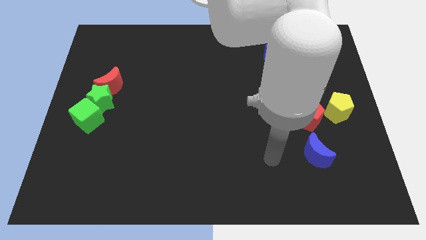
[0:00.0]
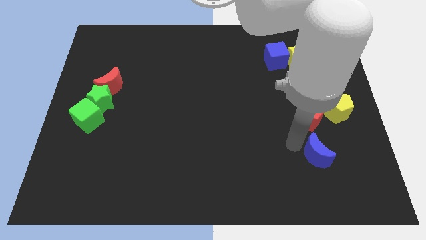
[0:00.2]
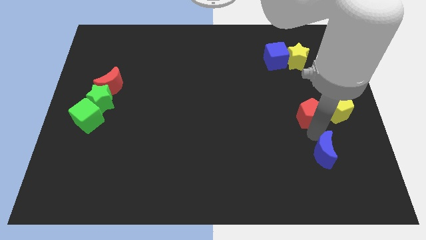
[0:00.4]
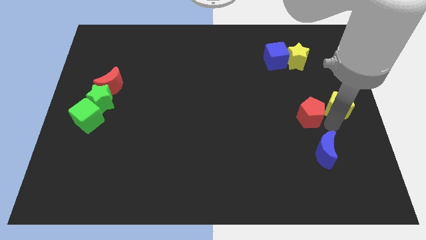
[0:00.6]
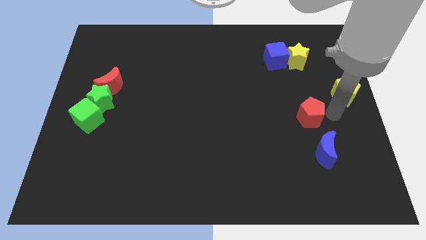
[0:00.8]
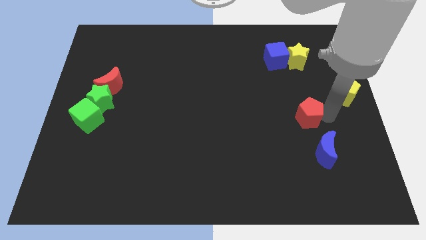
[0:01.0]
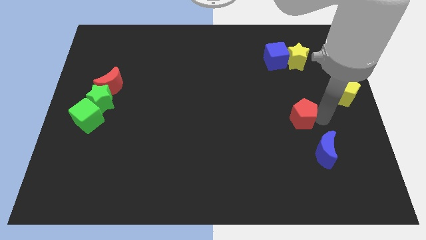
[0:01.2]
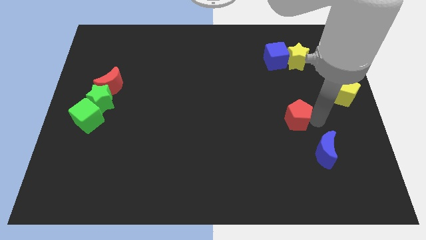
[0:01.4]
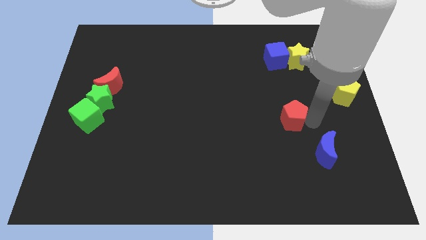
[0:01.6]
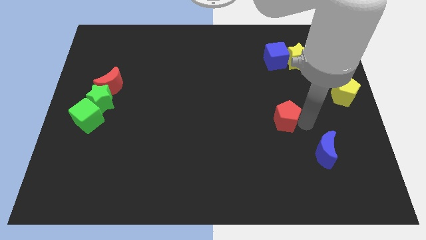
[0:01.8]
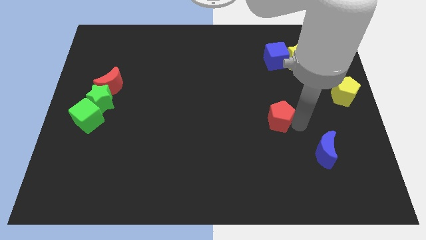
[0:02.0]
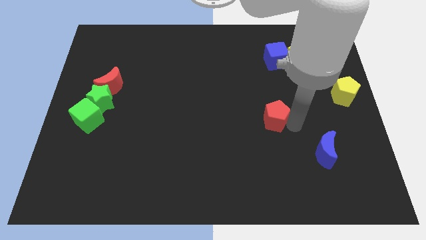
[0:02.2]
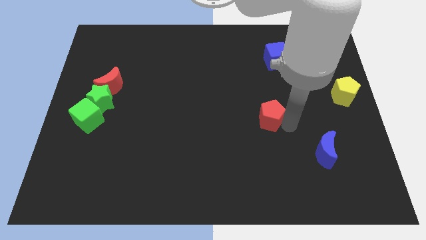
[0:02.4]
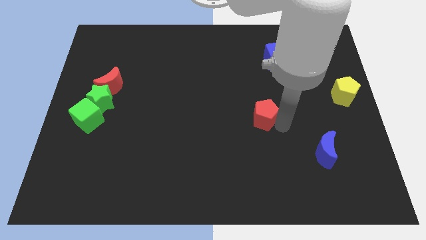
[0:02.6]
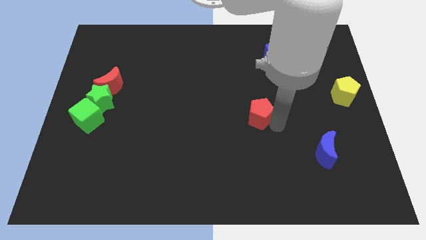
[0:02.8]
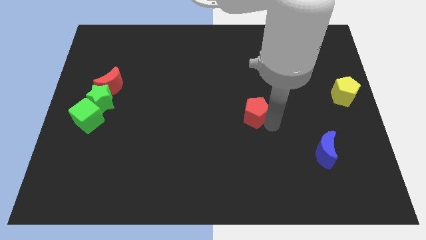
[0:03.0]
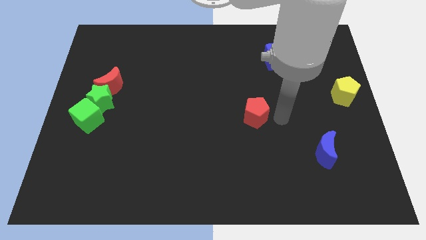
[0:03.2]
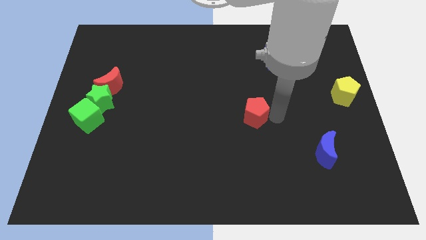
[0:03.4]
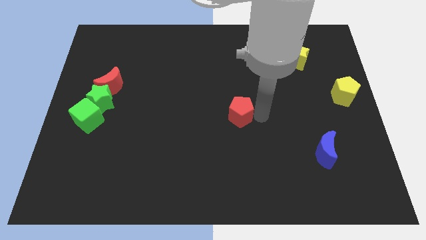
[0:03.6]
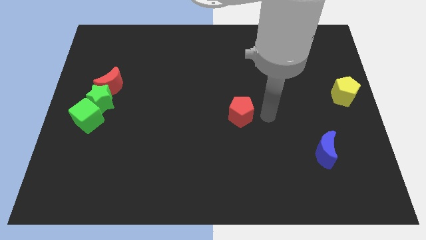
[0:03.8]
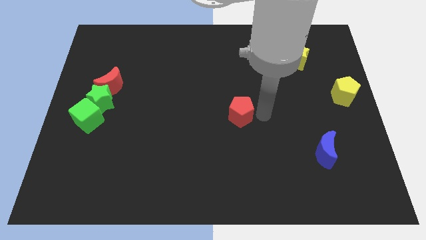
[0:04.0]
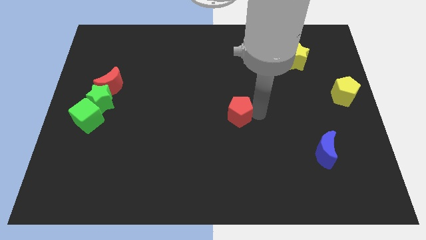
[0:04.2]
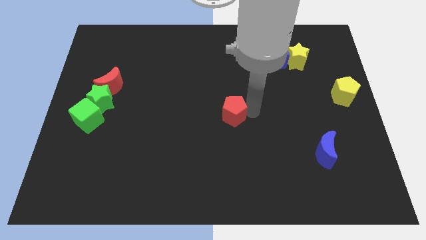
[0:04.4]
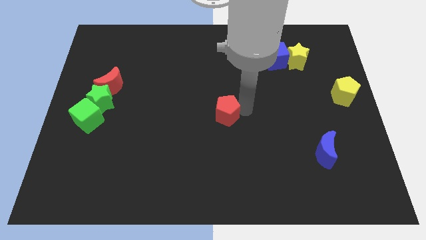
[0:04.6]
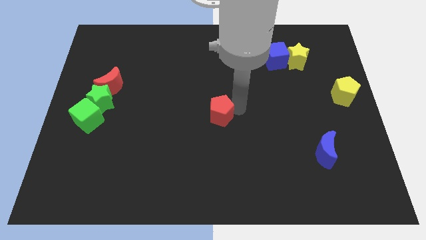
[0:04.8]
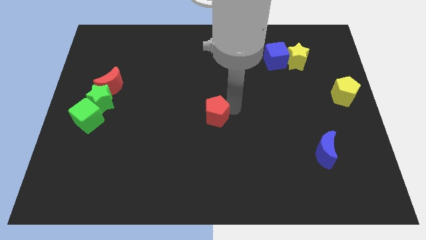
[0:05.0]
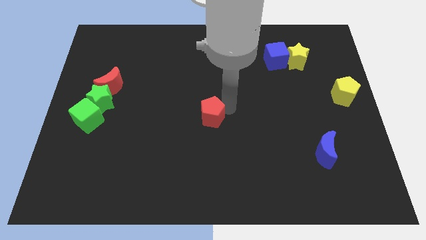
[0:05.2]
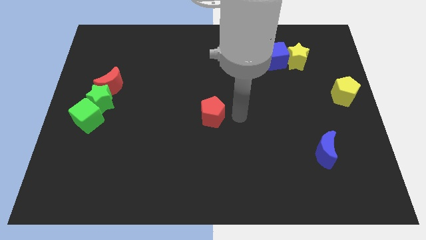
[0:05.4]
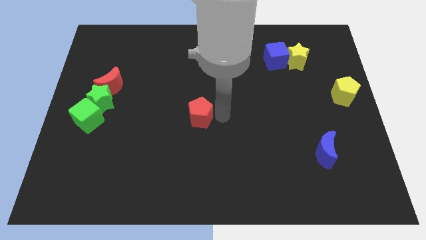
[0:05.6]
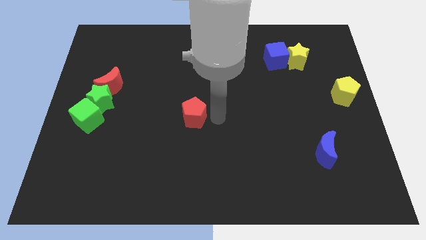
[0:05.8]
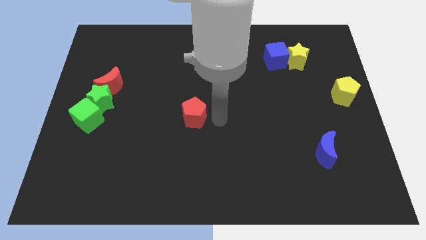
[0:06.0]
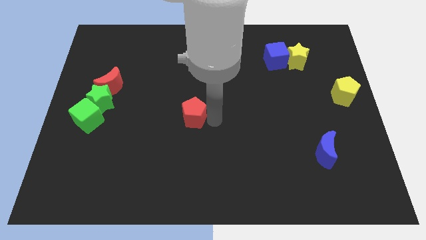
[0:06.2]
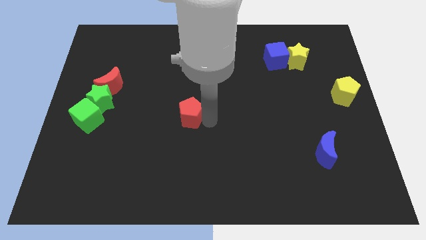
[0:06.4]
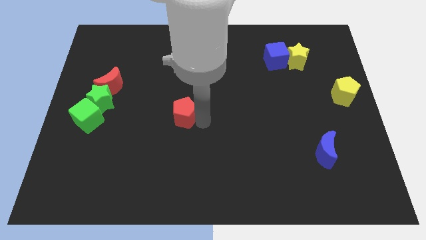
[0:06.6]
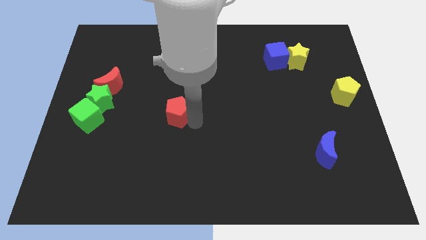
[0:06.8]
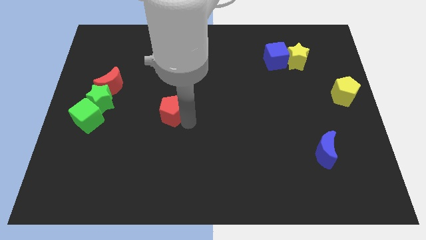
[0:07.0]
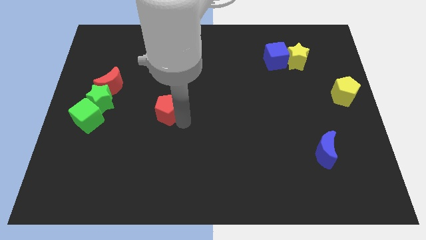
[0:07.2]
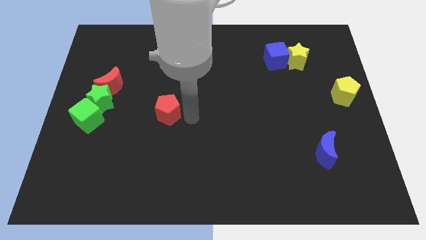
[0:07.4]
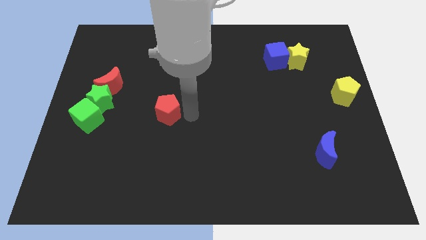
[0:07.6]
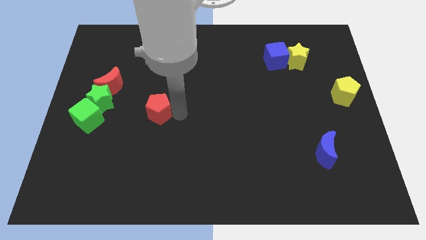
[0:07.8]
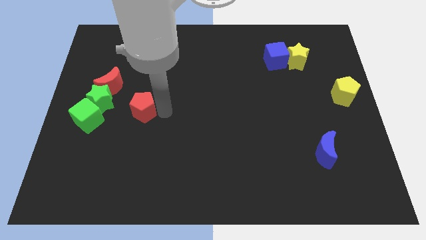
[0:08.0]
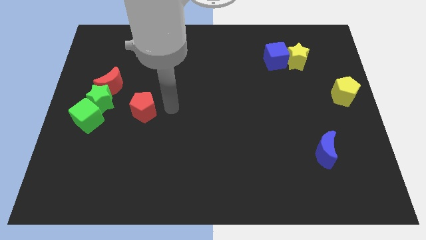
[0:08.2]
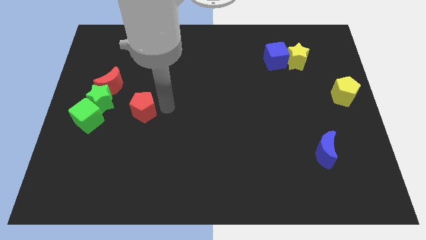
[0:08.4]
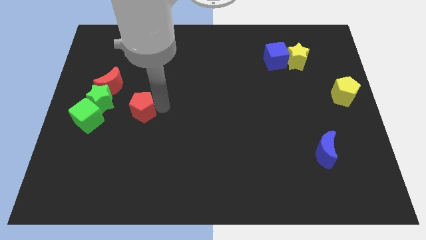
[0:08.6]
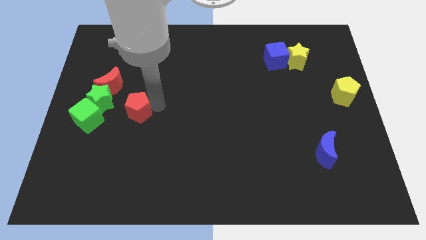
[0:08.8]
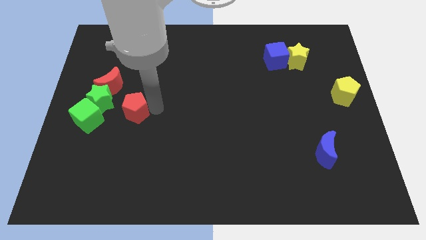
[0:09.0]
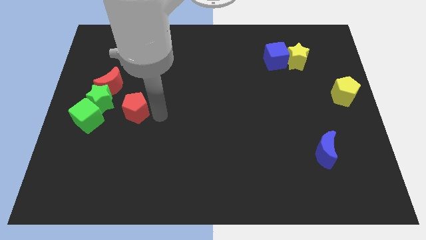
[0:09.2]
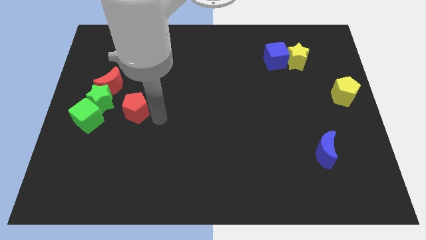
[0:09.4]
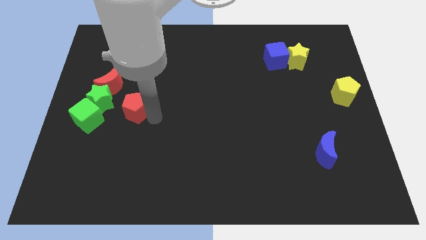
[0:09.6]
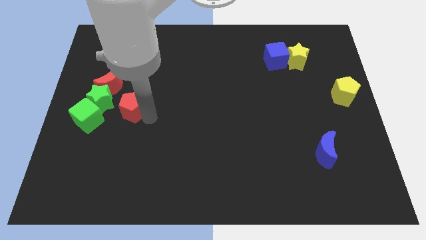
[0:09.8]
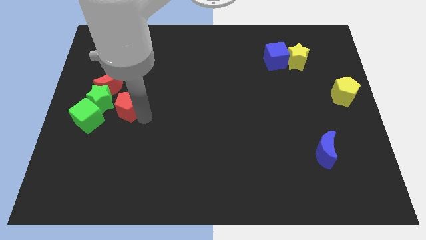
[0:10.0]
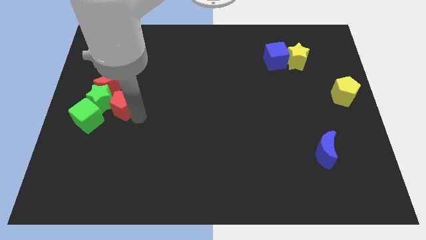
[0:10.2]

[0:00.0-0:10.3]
move the red pentagon towards the green star

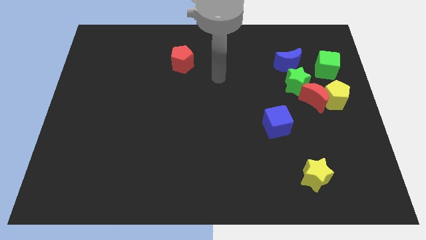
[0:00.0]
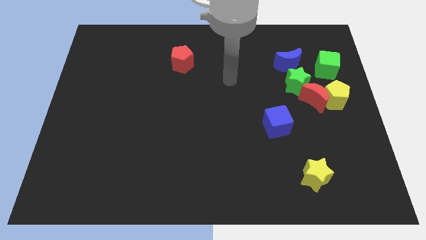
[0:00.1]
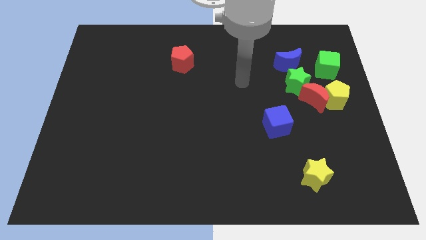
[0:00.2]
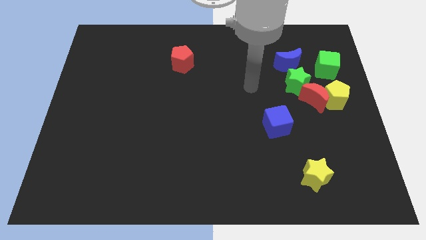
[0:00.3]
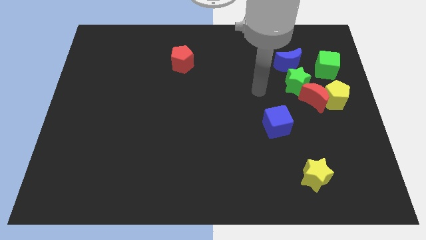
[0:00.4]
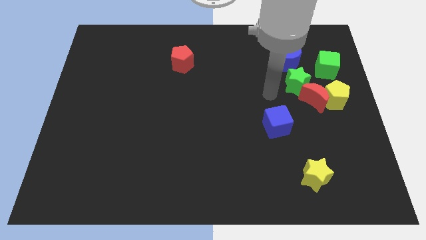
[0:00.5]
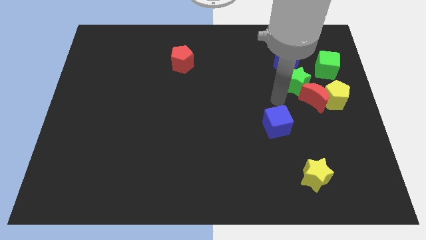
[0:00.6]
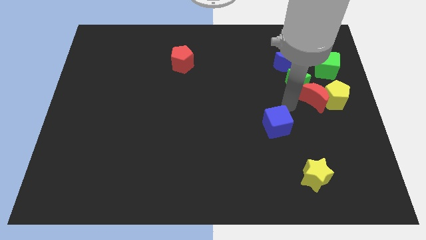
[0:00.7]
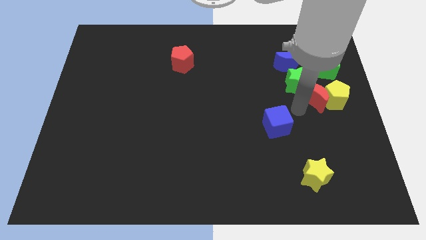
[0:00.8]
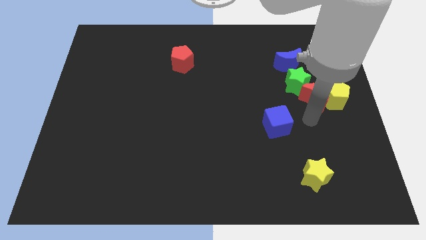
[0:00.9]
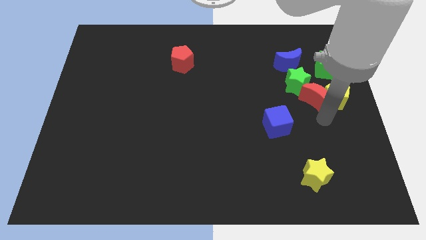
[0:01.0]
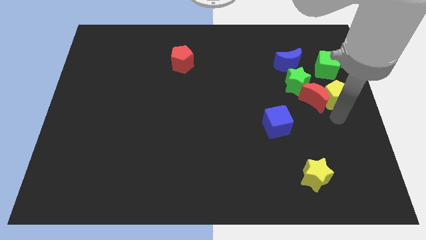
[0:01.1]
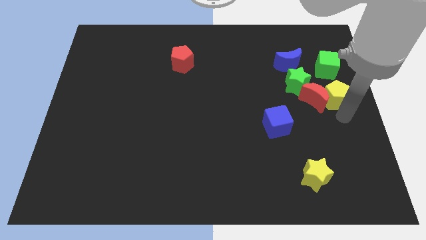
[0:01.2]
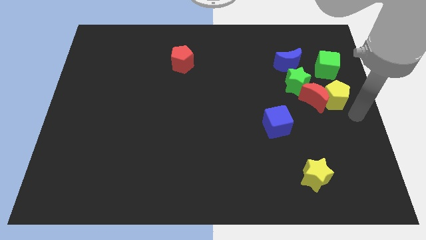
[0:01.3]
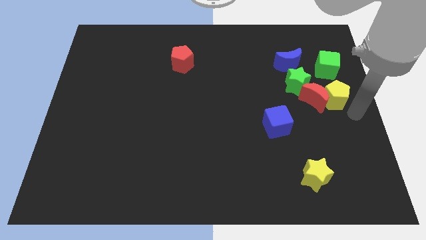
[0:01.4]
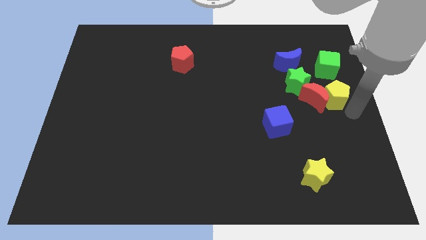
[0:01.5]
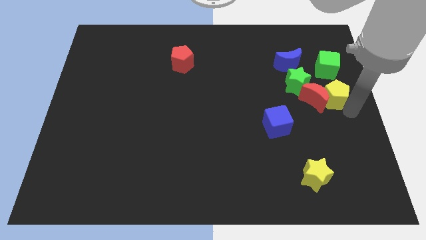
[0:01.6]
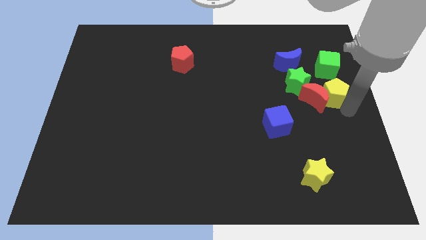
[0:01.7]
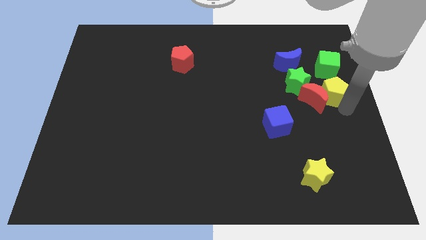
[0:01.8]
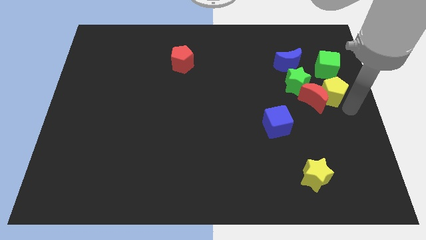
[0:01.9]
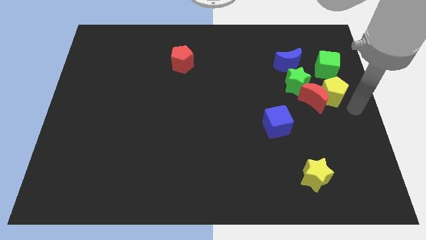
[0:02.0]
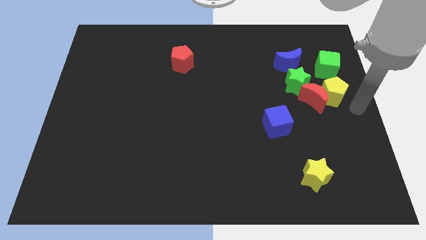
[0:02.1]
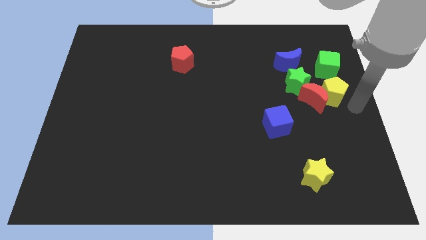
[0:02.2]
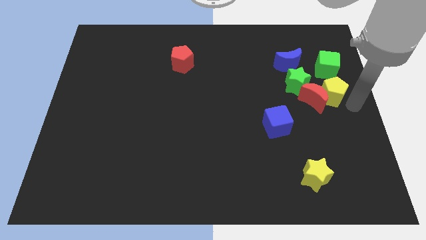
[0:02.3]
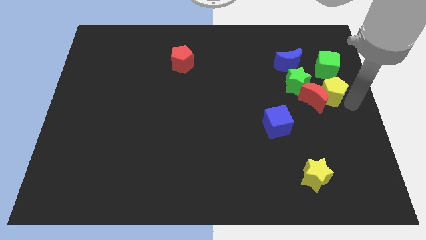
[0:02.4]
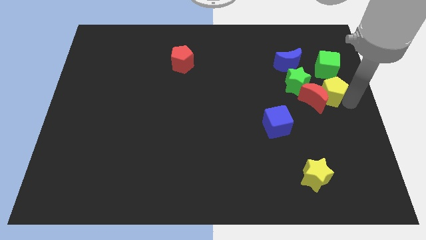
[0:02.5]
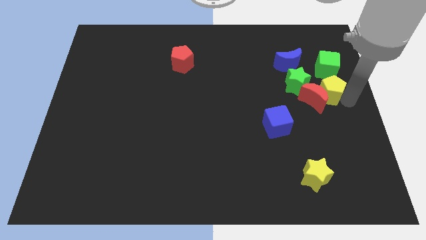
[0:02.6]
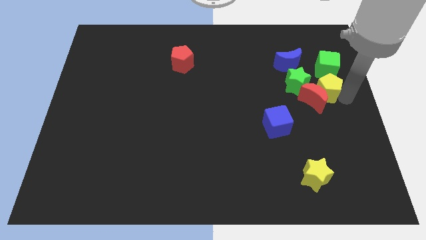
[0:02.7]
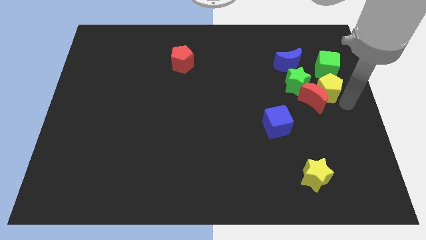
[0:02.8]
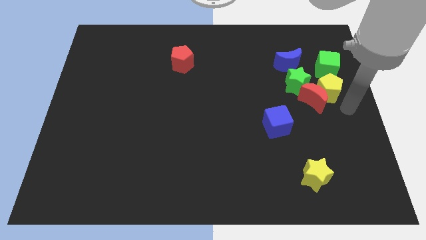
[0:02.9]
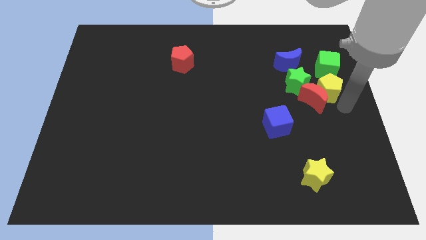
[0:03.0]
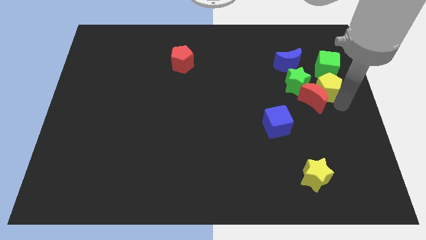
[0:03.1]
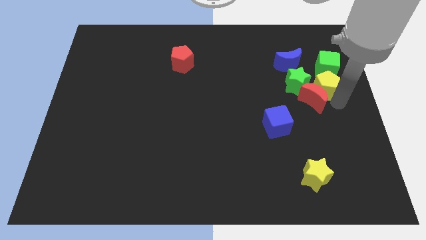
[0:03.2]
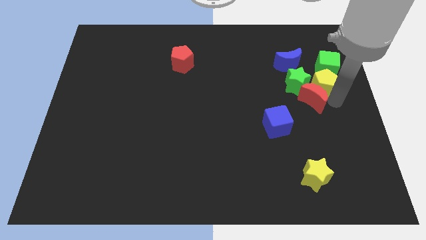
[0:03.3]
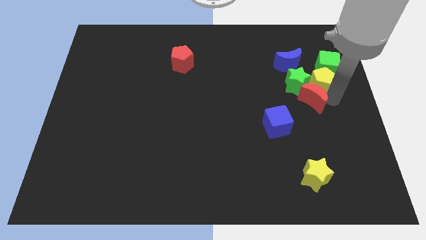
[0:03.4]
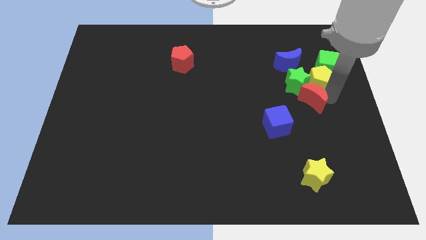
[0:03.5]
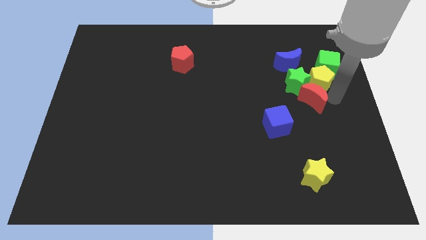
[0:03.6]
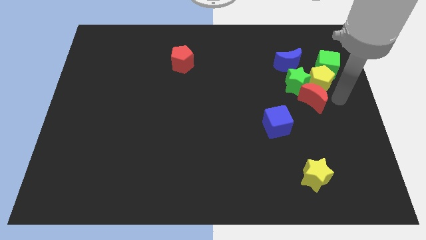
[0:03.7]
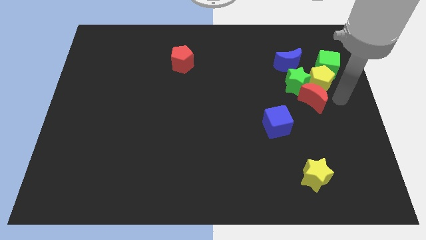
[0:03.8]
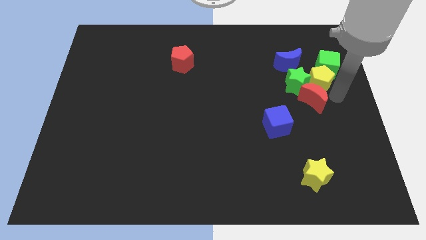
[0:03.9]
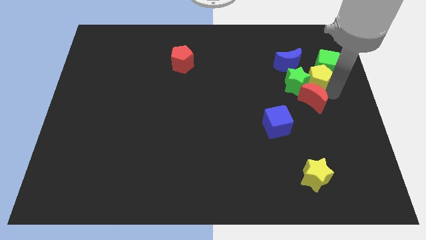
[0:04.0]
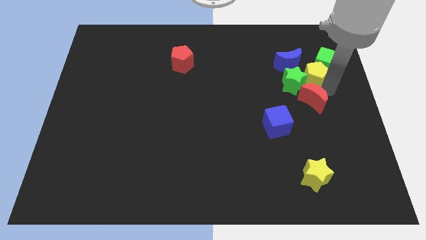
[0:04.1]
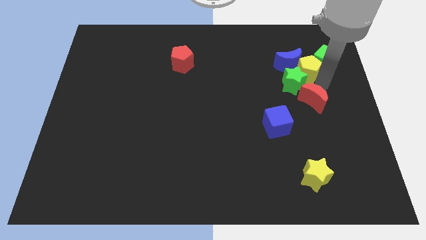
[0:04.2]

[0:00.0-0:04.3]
put the yellow pentagon to the blue moon
